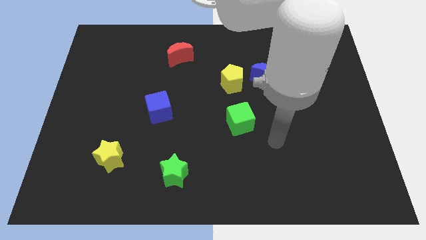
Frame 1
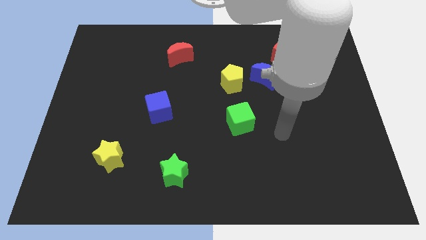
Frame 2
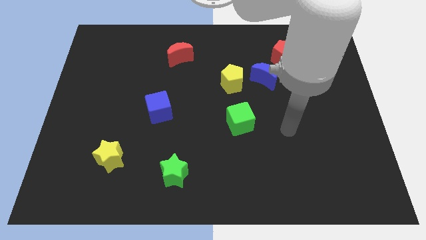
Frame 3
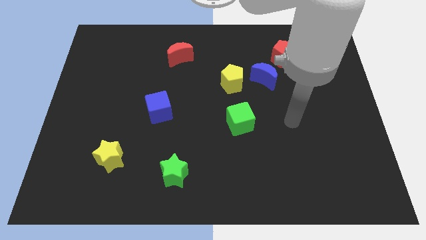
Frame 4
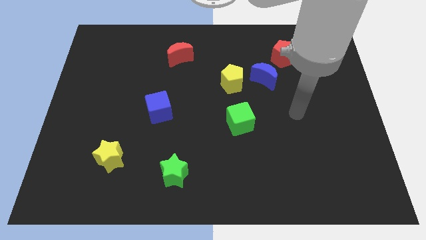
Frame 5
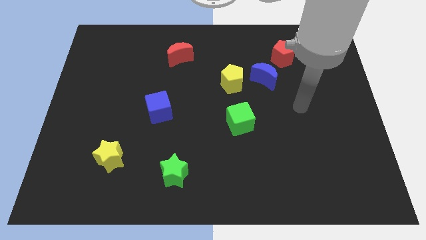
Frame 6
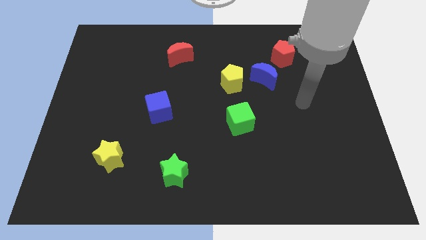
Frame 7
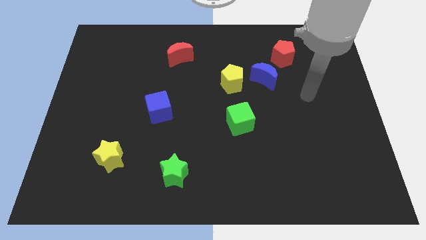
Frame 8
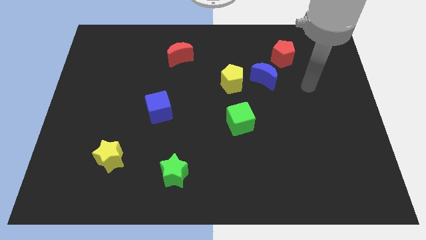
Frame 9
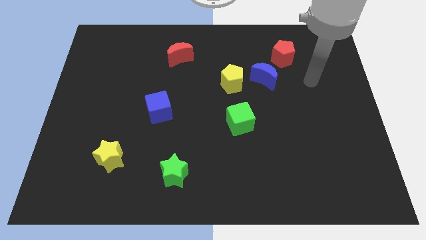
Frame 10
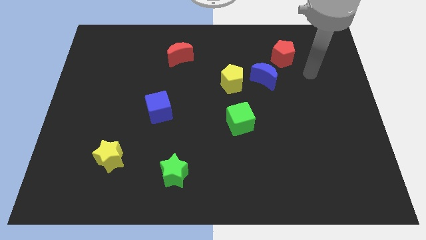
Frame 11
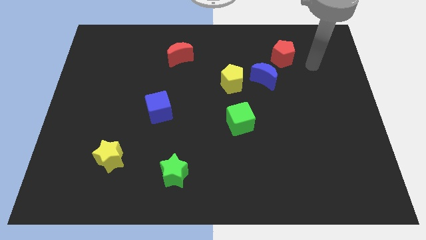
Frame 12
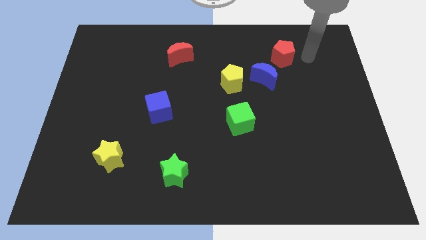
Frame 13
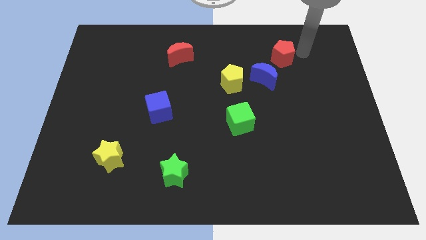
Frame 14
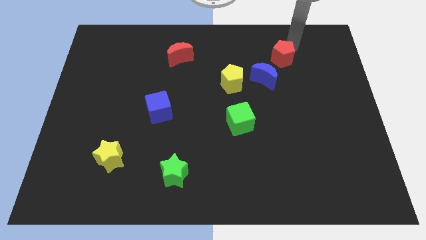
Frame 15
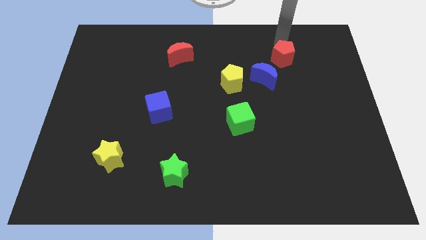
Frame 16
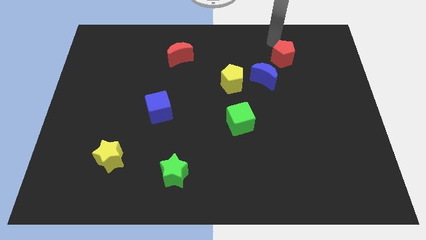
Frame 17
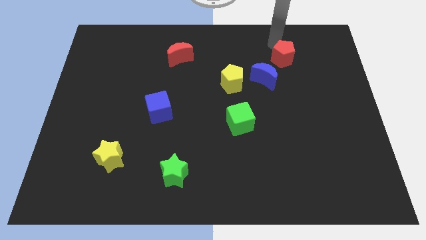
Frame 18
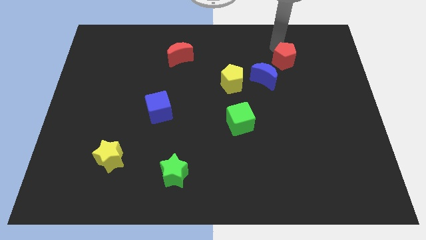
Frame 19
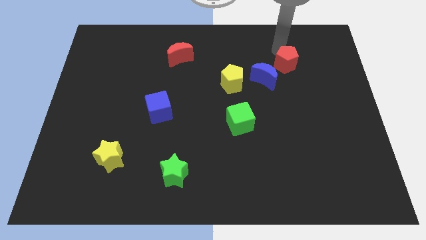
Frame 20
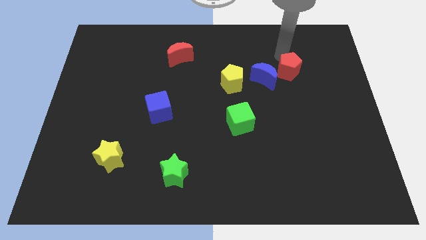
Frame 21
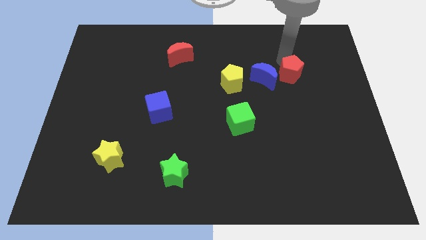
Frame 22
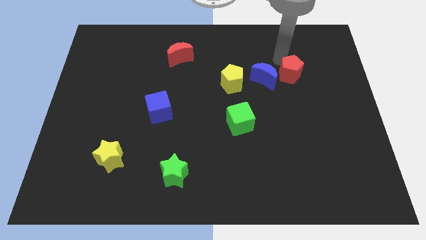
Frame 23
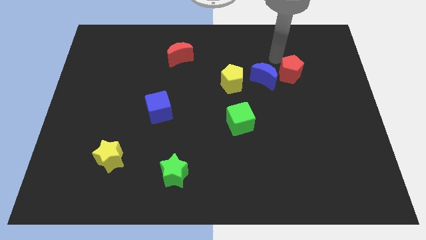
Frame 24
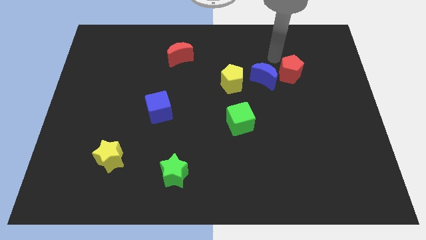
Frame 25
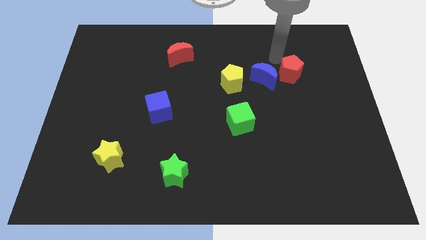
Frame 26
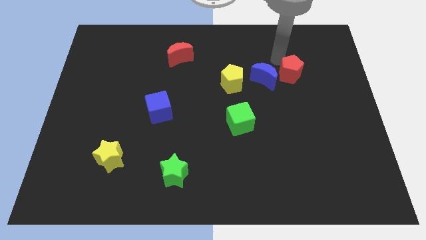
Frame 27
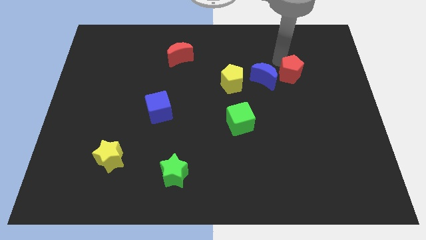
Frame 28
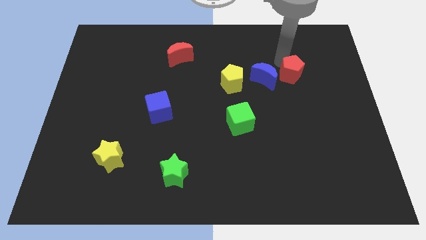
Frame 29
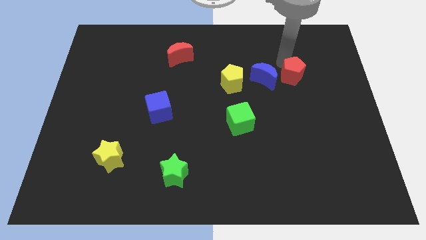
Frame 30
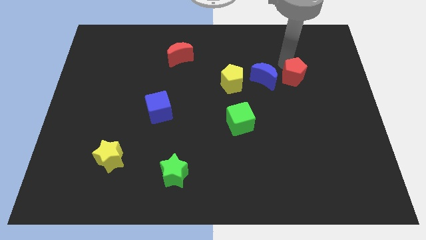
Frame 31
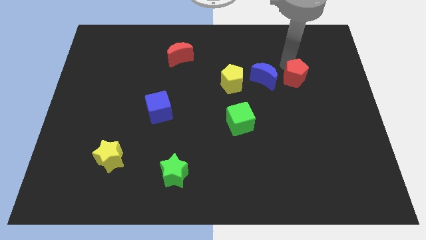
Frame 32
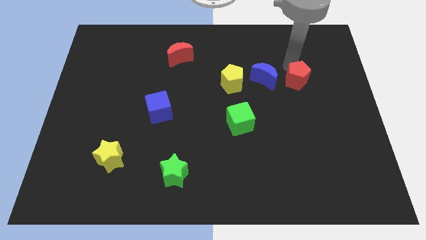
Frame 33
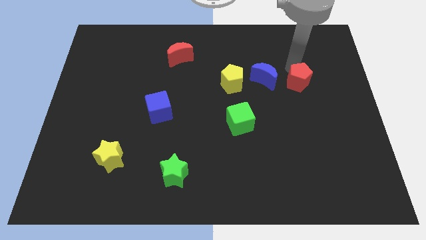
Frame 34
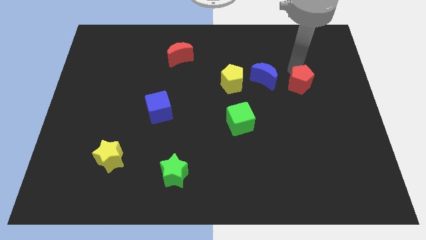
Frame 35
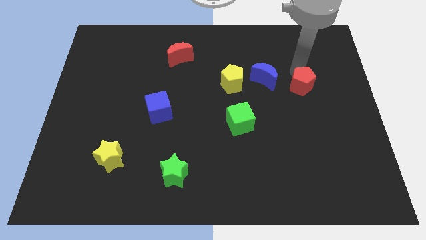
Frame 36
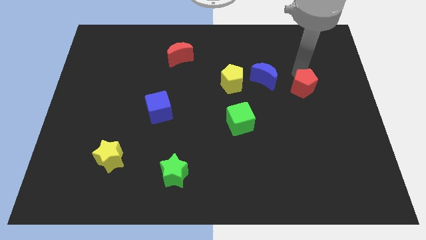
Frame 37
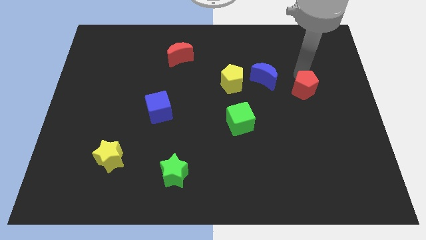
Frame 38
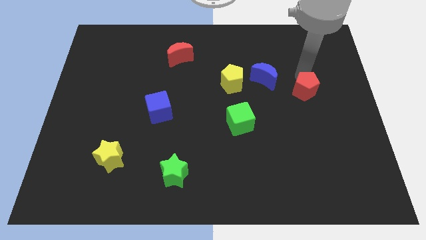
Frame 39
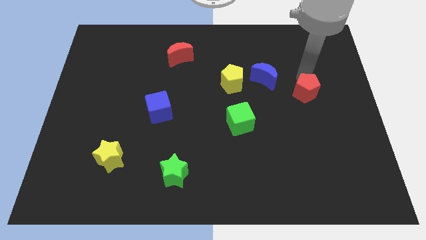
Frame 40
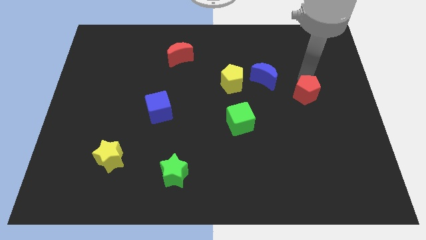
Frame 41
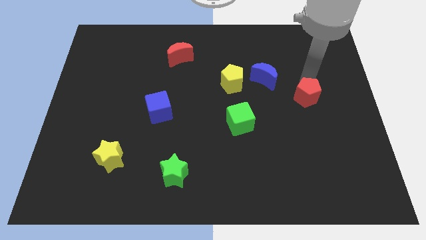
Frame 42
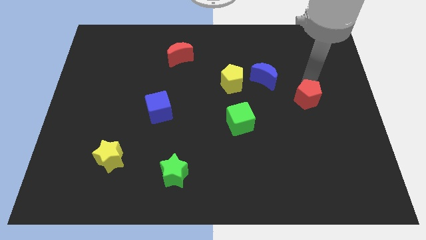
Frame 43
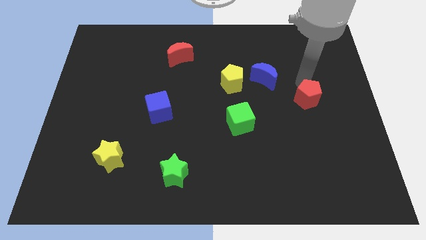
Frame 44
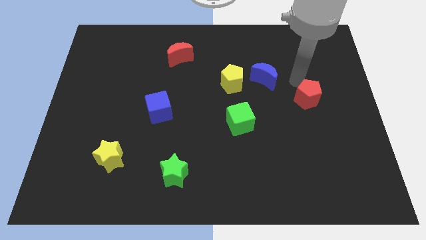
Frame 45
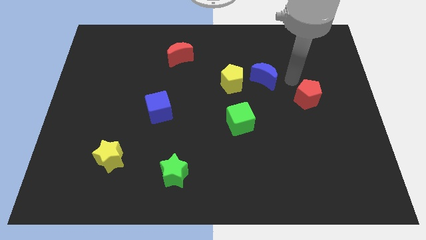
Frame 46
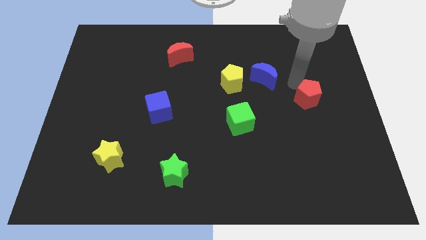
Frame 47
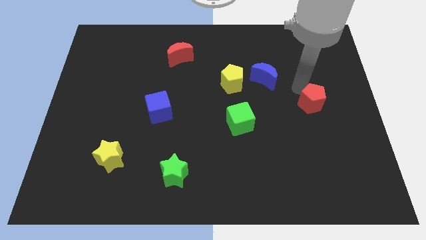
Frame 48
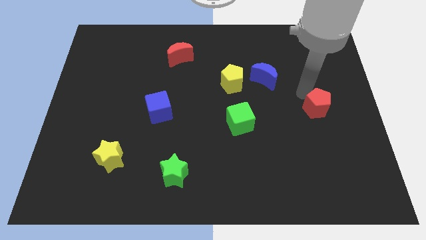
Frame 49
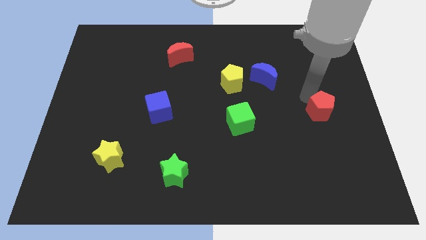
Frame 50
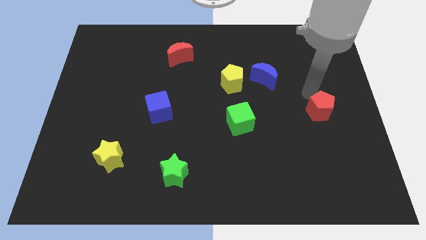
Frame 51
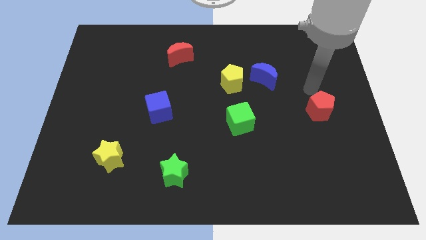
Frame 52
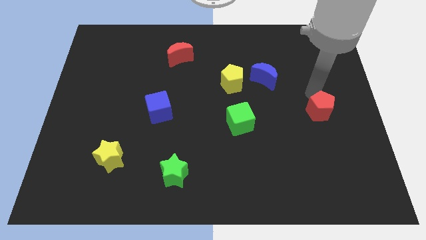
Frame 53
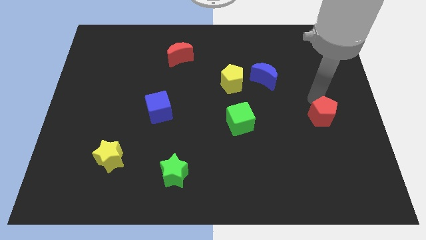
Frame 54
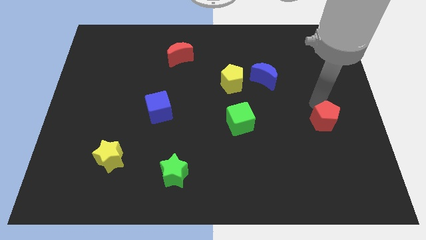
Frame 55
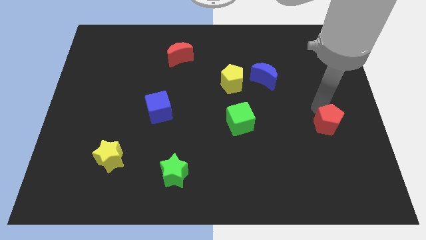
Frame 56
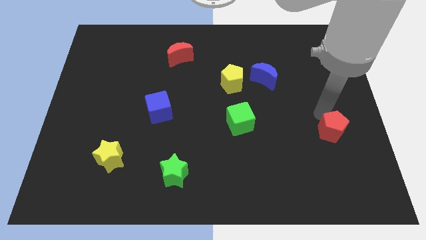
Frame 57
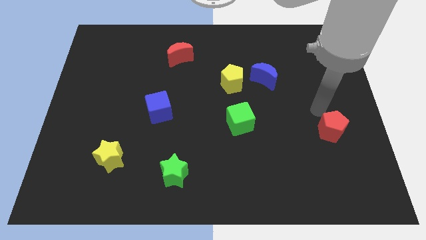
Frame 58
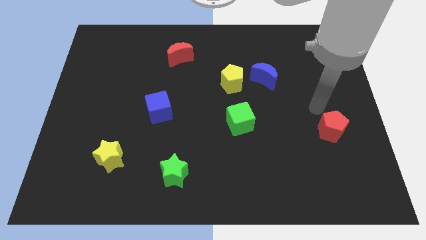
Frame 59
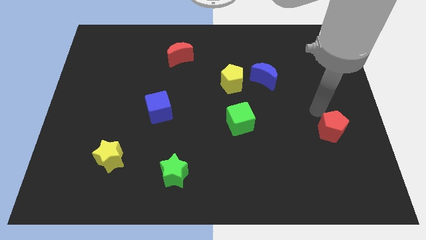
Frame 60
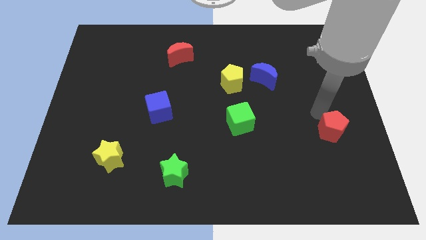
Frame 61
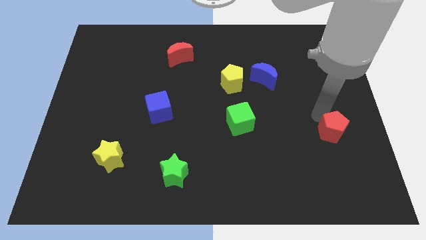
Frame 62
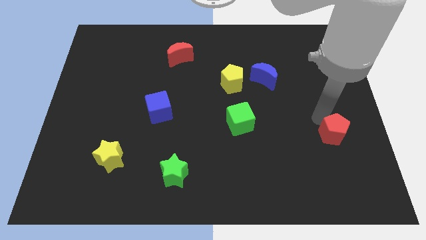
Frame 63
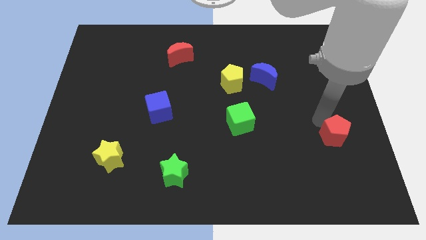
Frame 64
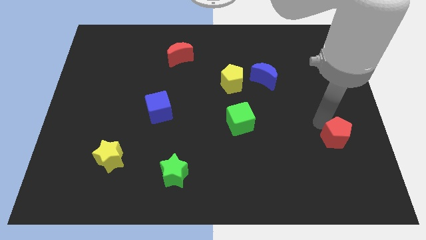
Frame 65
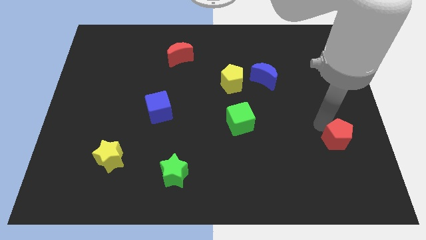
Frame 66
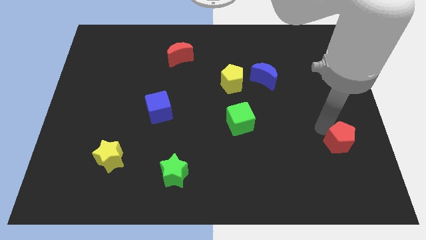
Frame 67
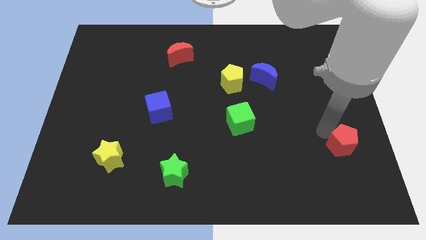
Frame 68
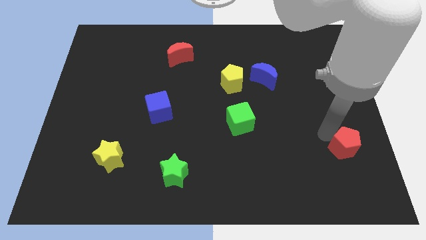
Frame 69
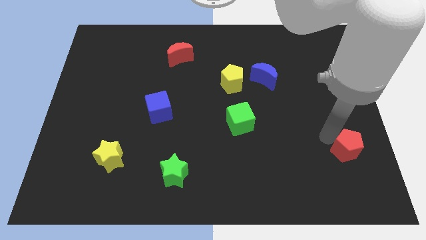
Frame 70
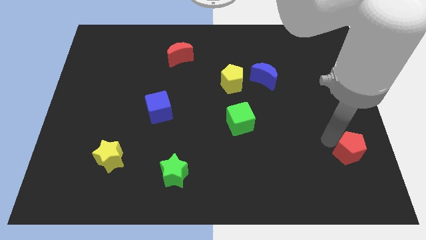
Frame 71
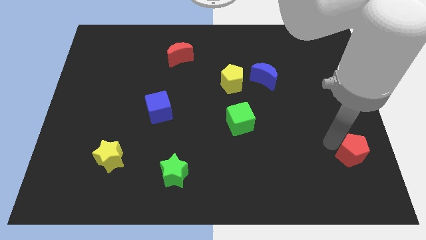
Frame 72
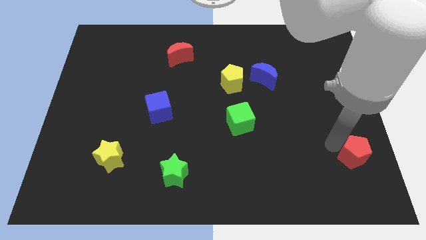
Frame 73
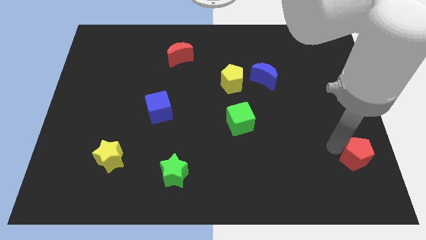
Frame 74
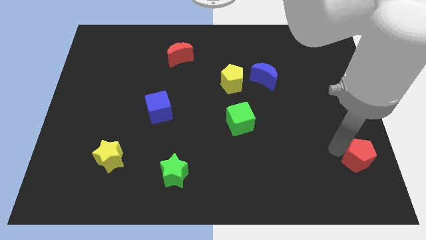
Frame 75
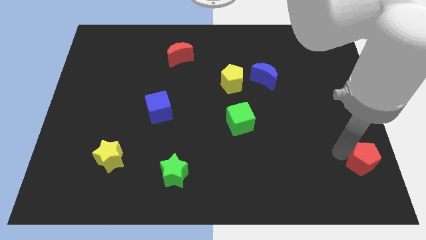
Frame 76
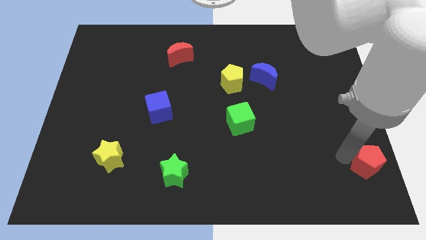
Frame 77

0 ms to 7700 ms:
slide the red pentagon to the lower right corner
